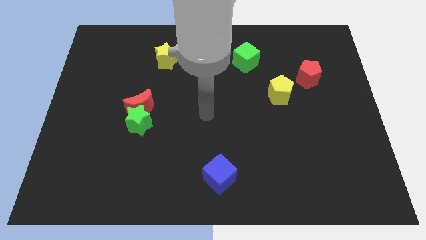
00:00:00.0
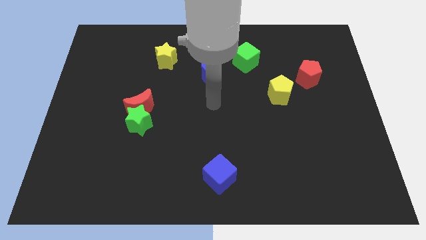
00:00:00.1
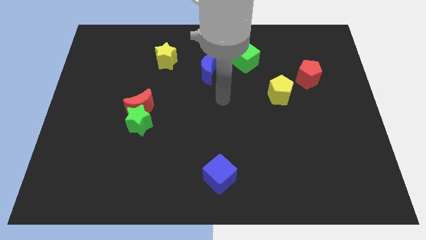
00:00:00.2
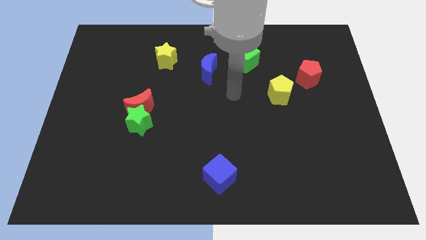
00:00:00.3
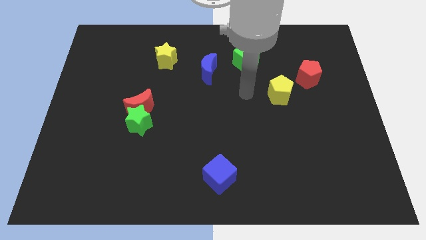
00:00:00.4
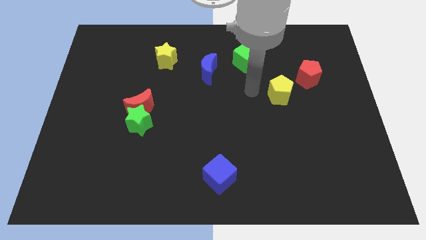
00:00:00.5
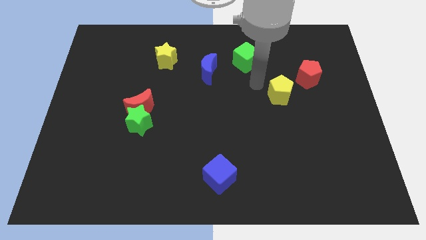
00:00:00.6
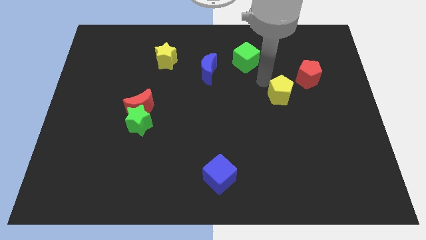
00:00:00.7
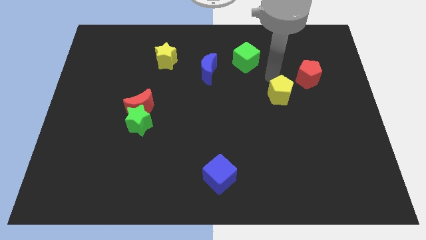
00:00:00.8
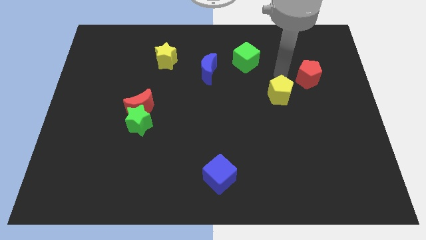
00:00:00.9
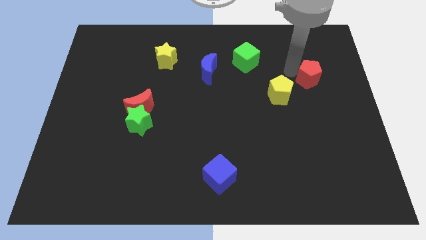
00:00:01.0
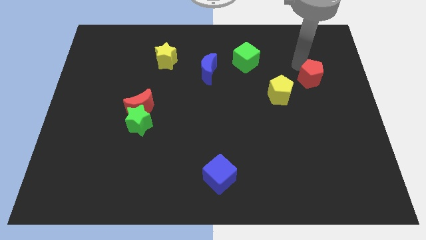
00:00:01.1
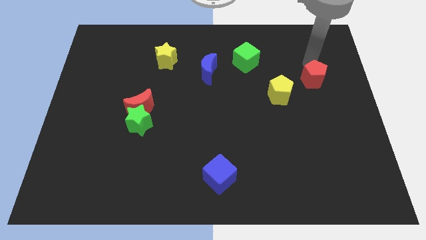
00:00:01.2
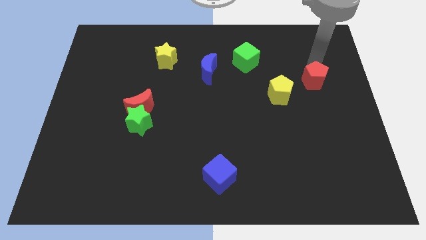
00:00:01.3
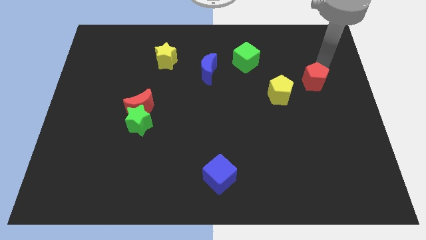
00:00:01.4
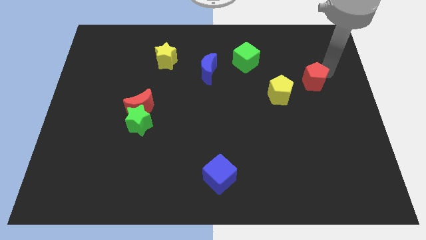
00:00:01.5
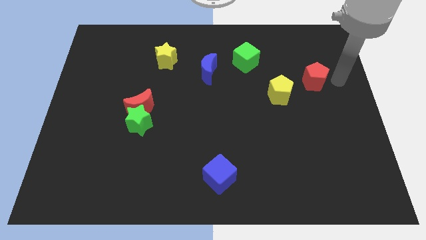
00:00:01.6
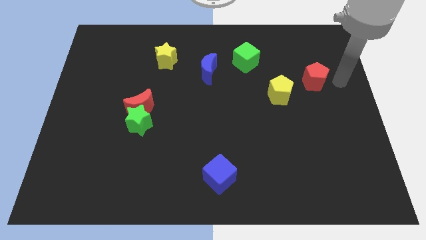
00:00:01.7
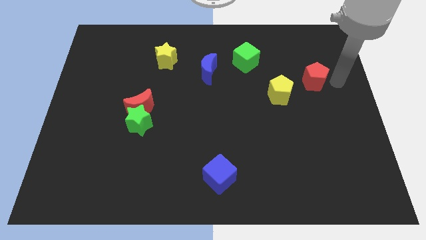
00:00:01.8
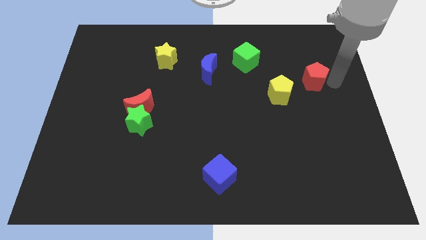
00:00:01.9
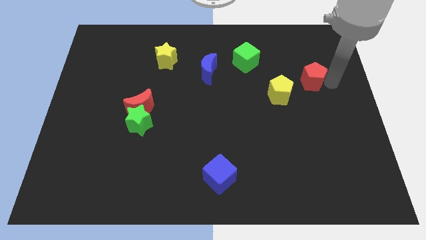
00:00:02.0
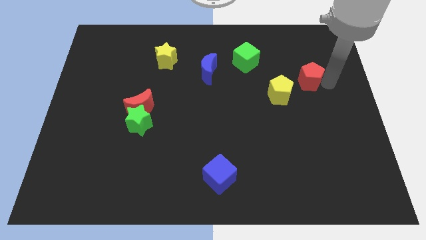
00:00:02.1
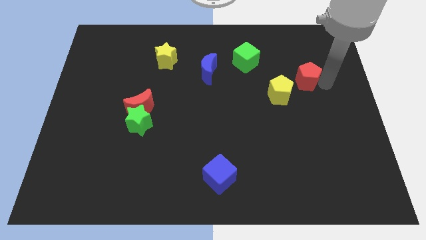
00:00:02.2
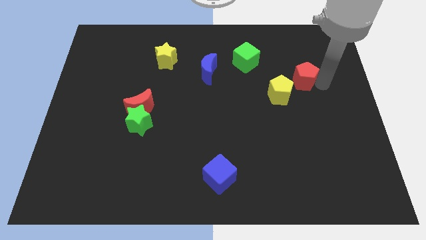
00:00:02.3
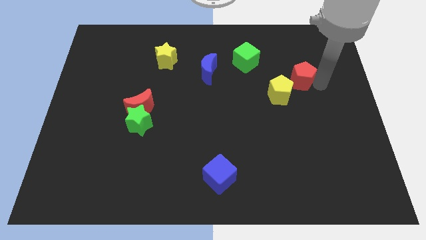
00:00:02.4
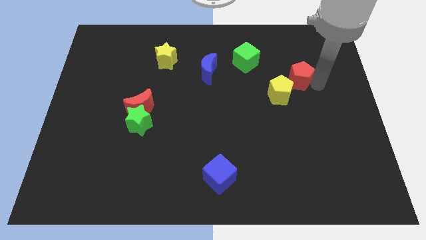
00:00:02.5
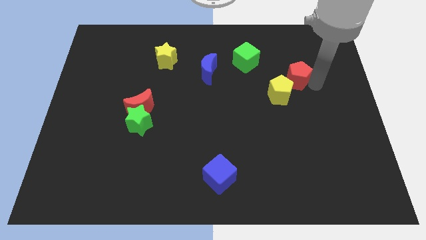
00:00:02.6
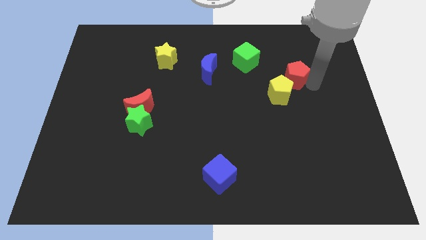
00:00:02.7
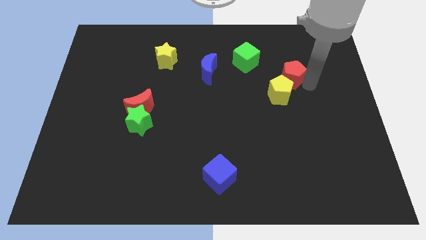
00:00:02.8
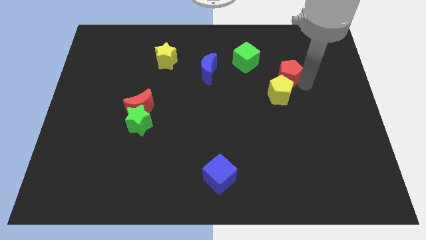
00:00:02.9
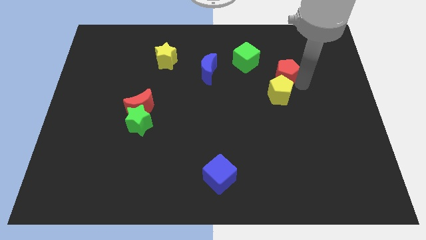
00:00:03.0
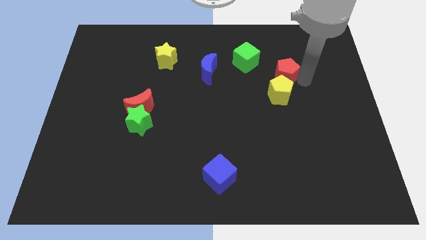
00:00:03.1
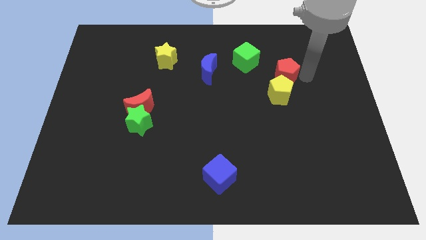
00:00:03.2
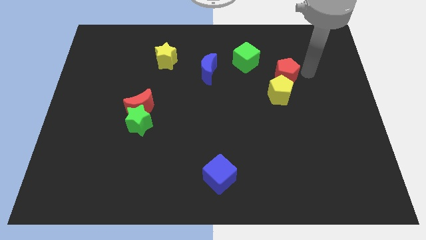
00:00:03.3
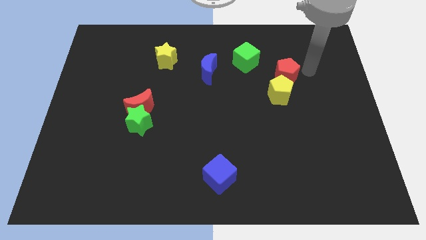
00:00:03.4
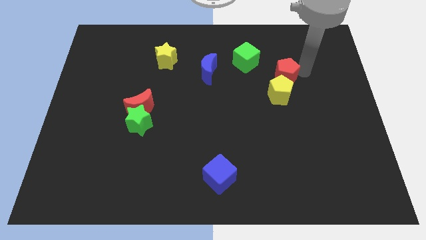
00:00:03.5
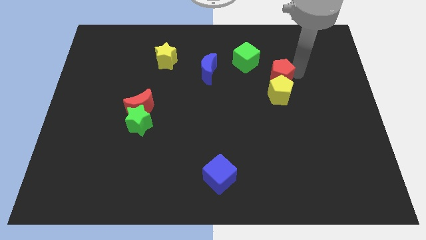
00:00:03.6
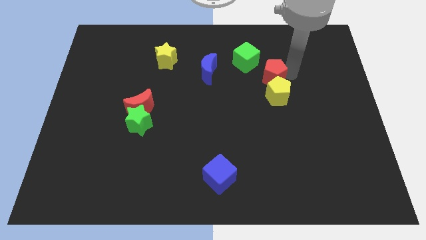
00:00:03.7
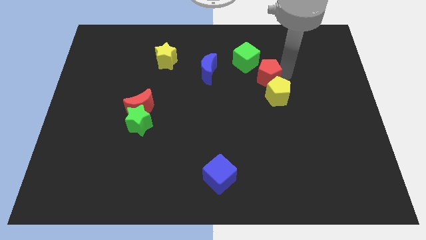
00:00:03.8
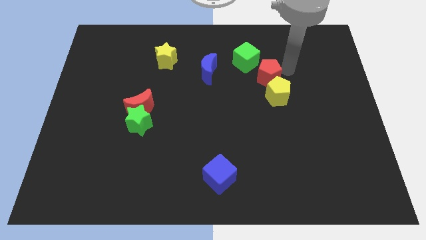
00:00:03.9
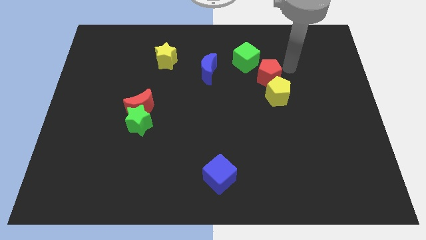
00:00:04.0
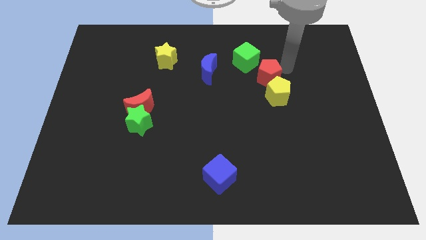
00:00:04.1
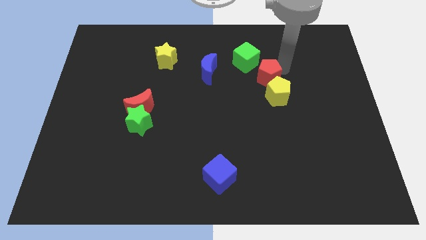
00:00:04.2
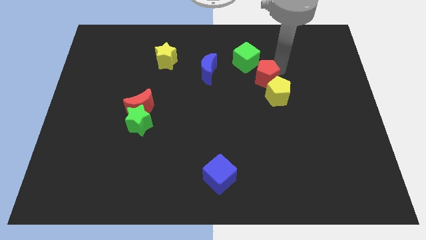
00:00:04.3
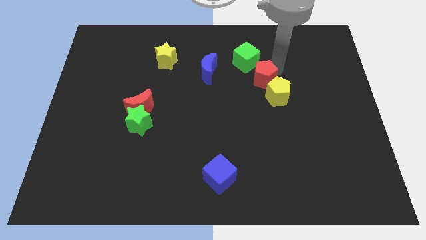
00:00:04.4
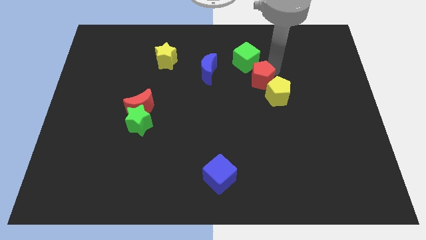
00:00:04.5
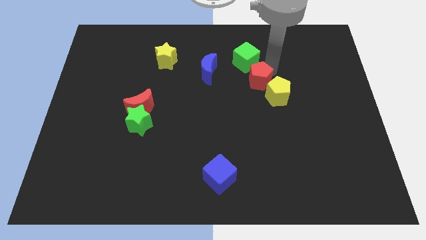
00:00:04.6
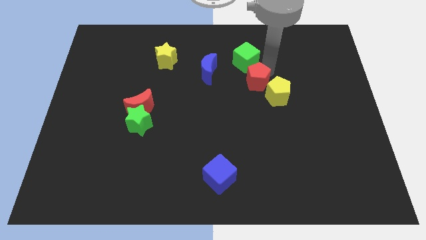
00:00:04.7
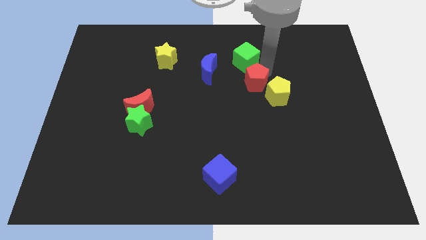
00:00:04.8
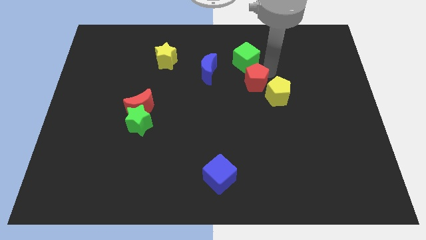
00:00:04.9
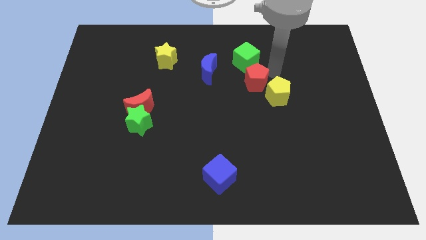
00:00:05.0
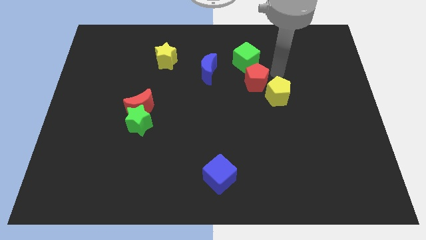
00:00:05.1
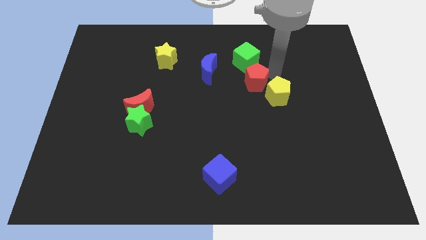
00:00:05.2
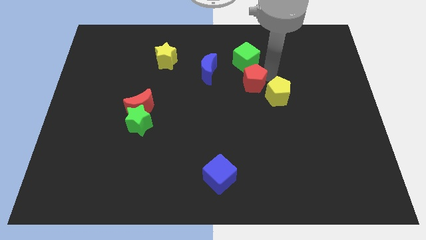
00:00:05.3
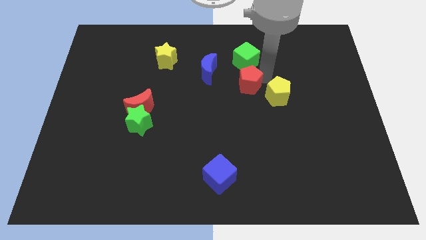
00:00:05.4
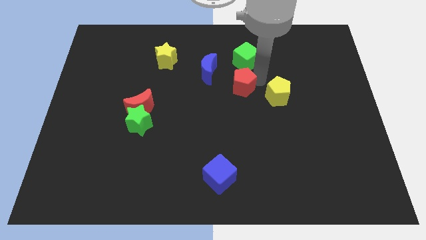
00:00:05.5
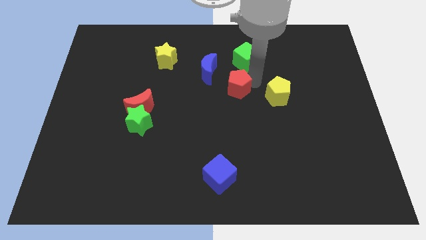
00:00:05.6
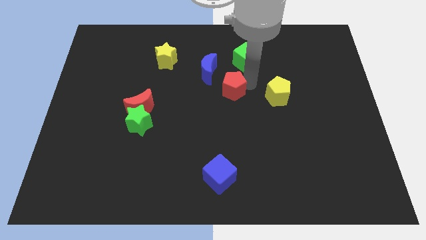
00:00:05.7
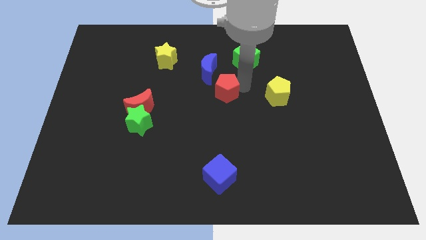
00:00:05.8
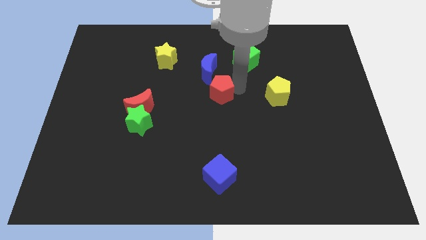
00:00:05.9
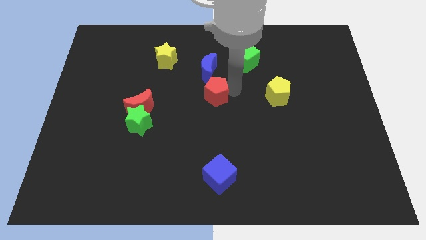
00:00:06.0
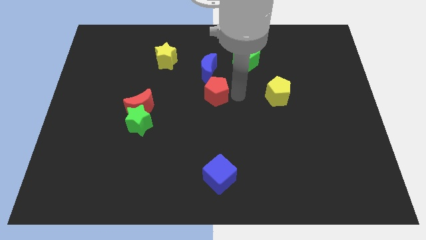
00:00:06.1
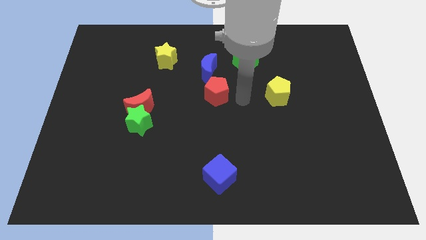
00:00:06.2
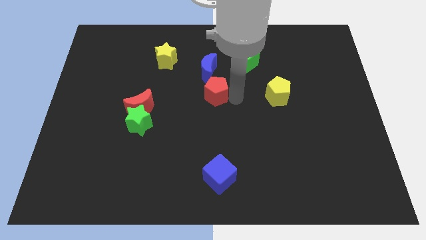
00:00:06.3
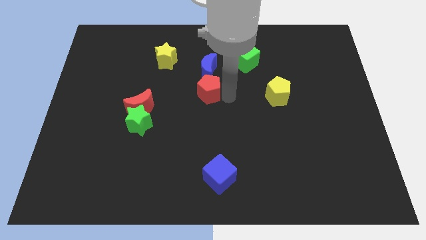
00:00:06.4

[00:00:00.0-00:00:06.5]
slide the red pentagon diagonally down and to the left of the blue moon
